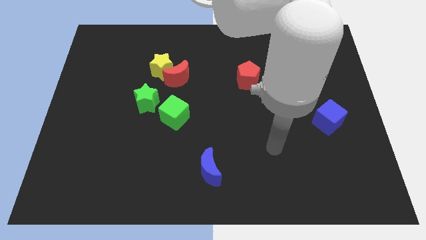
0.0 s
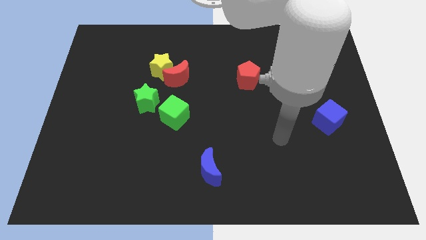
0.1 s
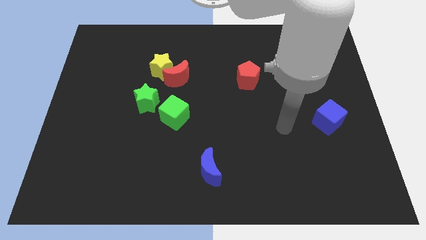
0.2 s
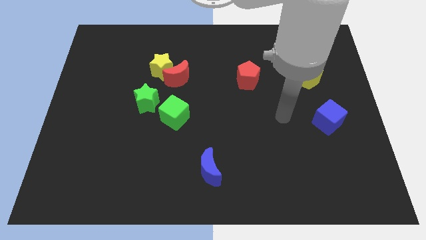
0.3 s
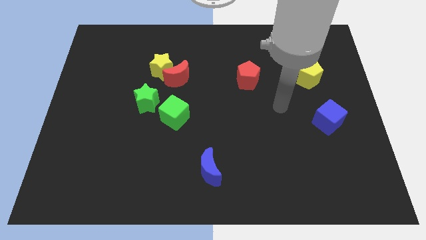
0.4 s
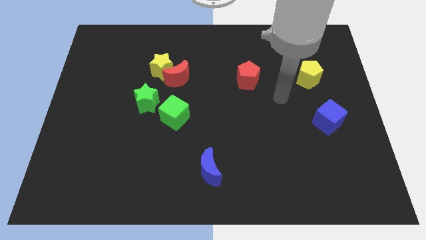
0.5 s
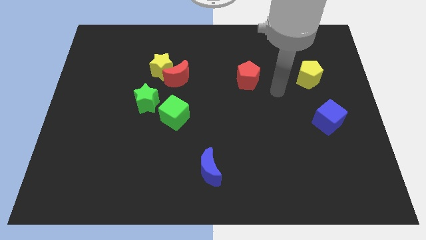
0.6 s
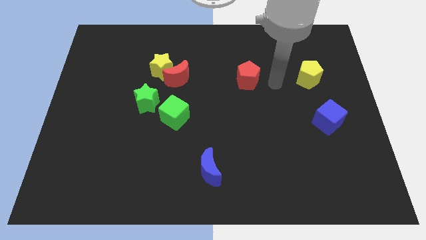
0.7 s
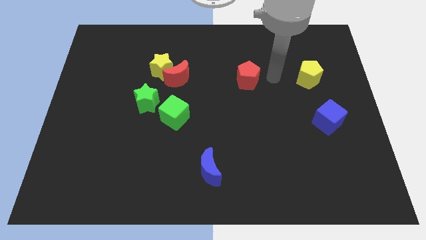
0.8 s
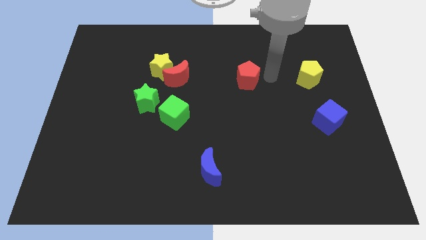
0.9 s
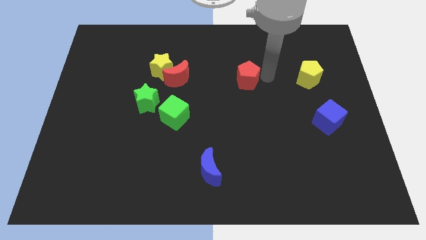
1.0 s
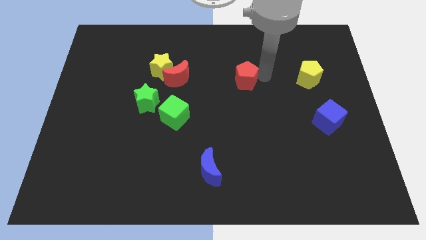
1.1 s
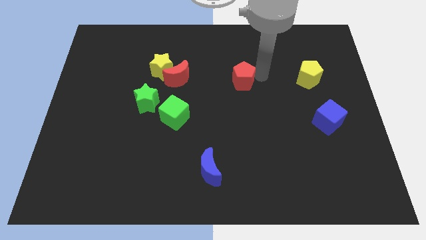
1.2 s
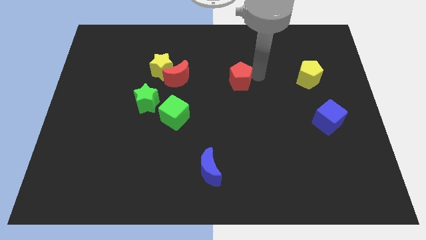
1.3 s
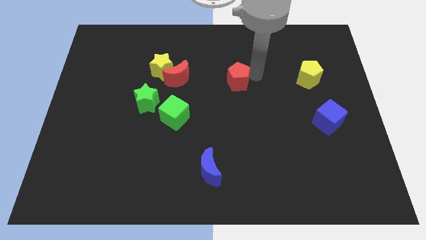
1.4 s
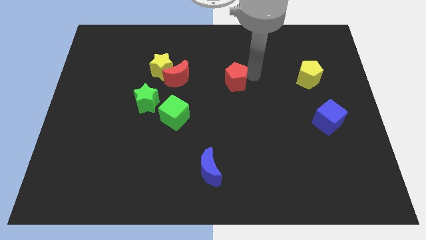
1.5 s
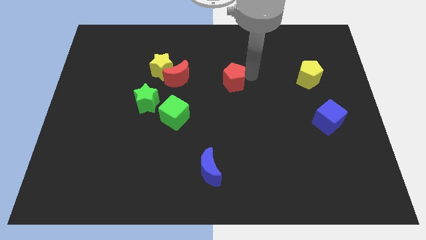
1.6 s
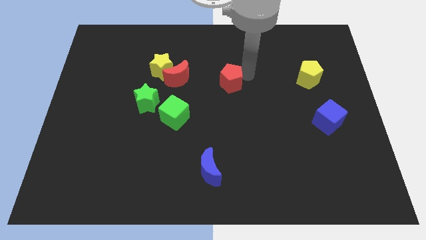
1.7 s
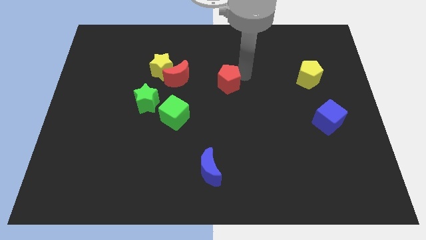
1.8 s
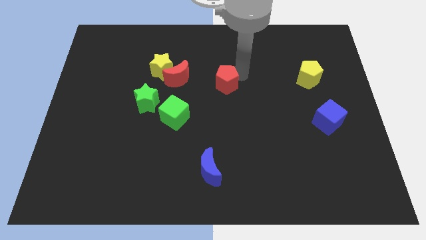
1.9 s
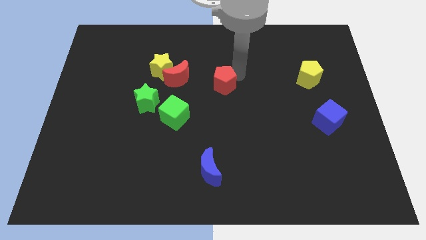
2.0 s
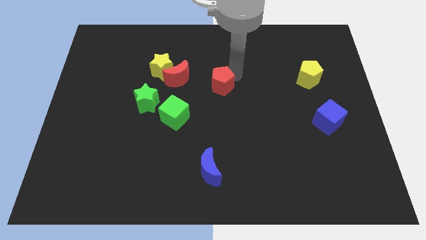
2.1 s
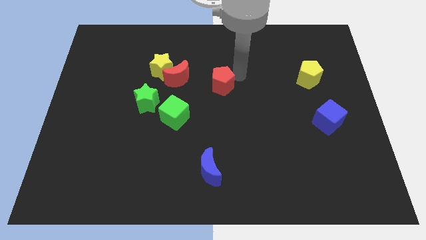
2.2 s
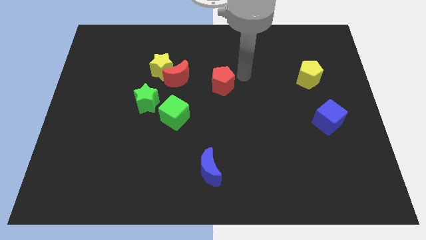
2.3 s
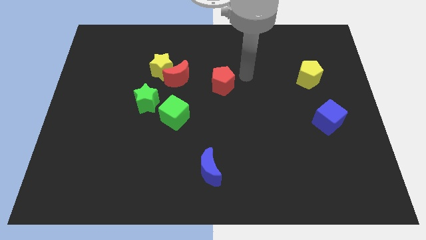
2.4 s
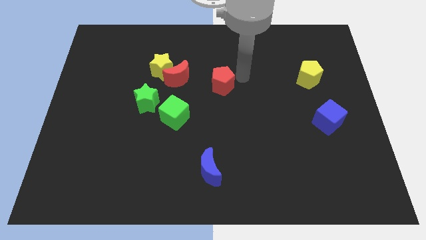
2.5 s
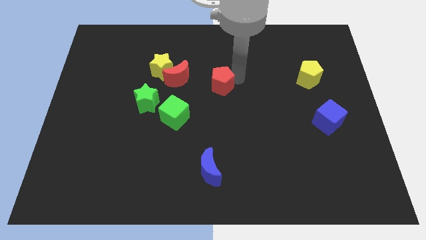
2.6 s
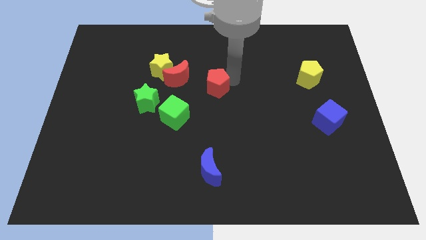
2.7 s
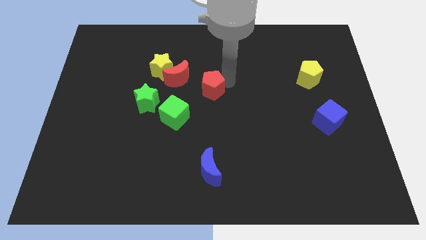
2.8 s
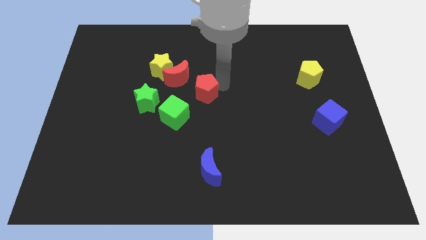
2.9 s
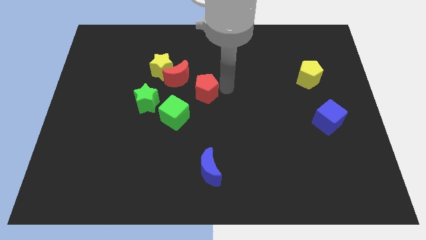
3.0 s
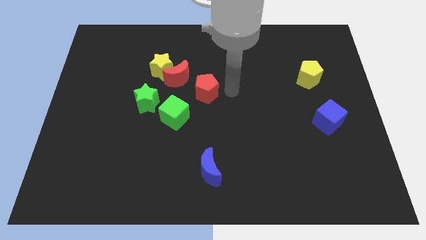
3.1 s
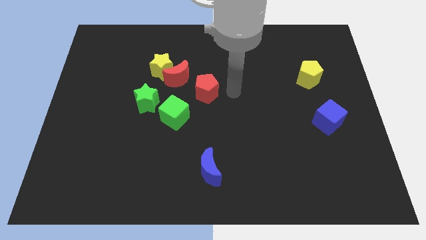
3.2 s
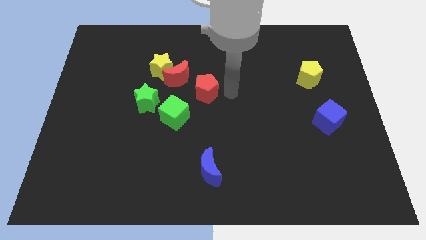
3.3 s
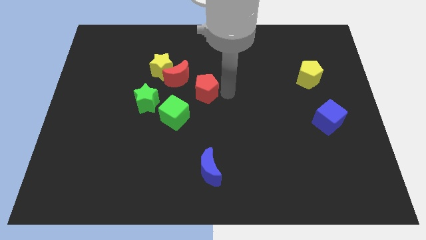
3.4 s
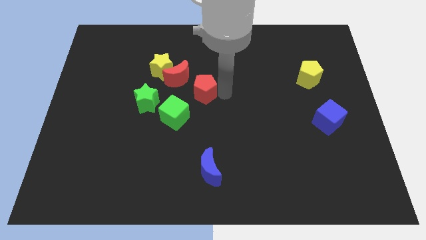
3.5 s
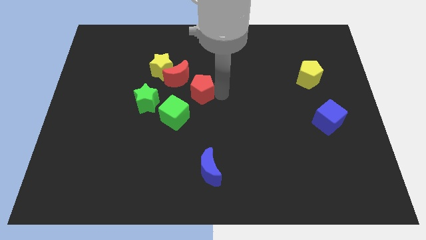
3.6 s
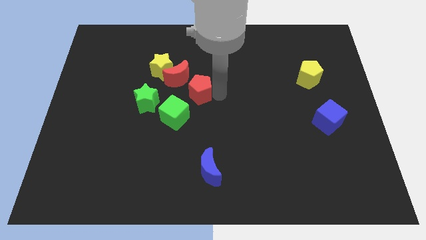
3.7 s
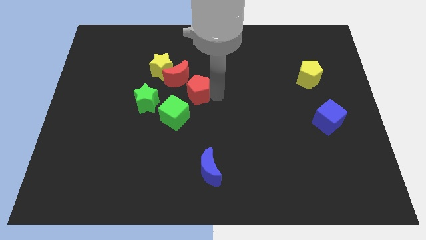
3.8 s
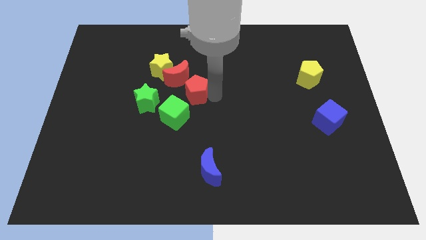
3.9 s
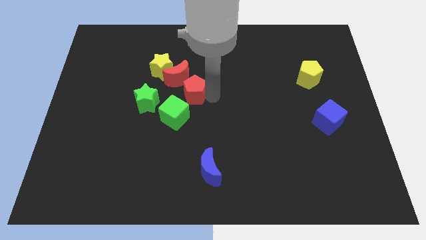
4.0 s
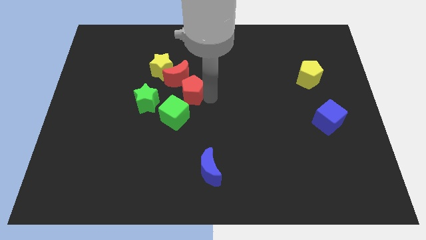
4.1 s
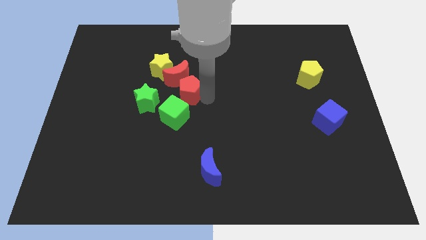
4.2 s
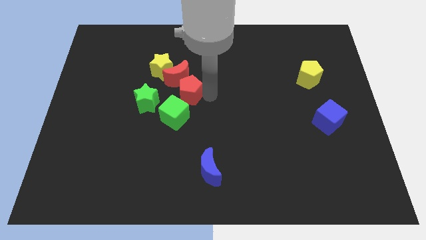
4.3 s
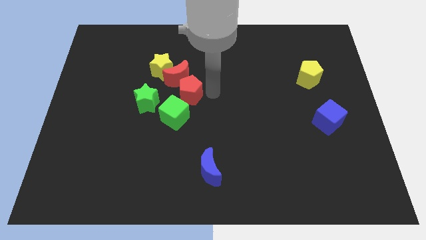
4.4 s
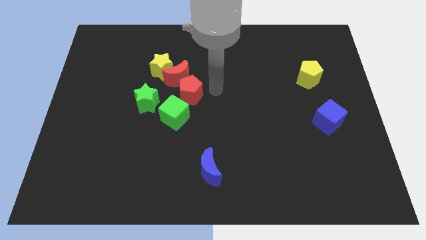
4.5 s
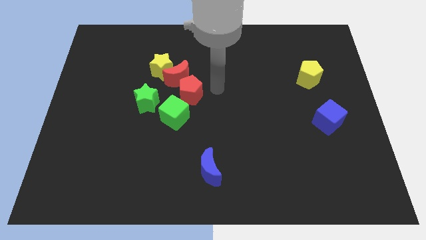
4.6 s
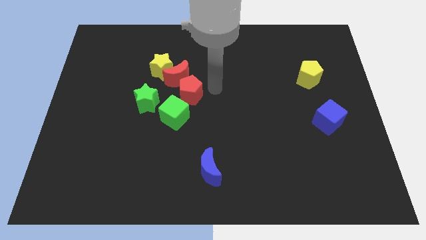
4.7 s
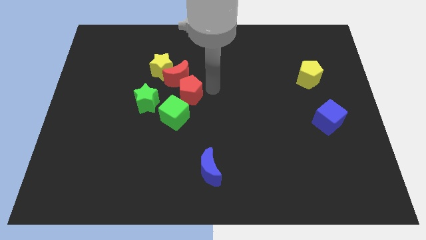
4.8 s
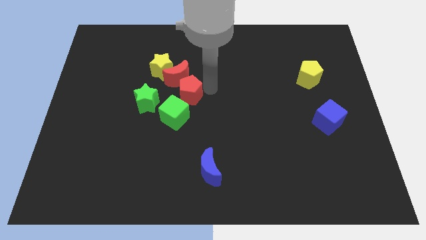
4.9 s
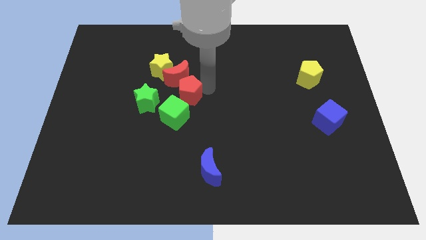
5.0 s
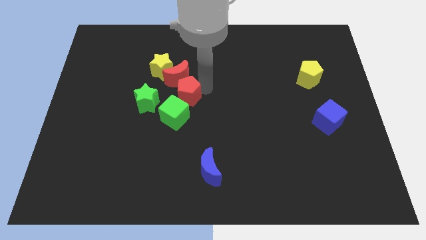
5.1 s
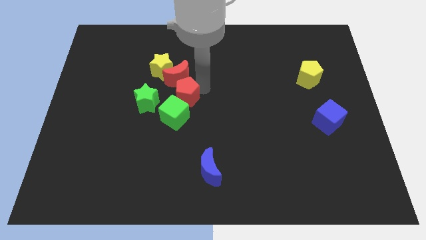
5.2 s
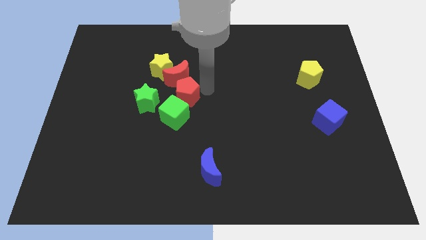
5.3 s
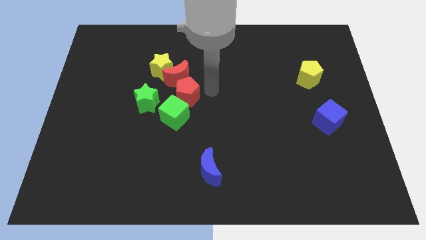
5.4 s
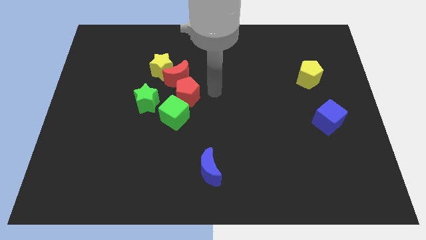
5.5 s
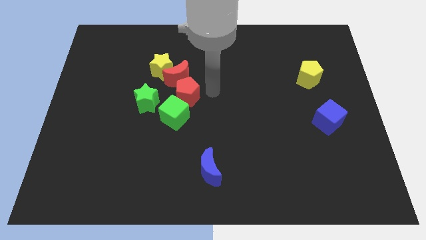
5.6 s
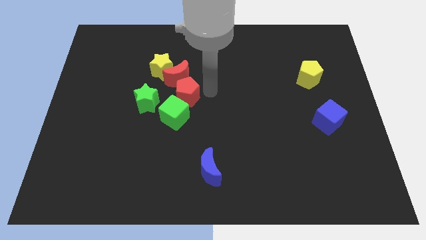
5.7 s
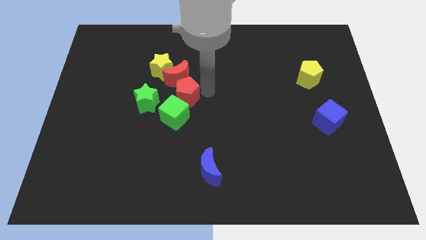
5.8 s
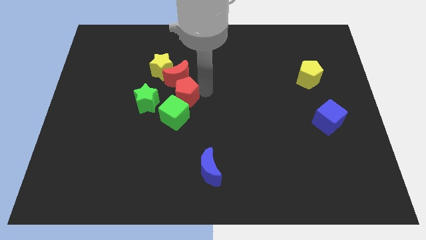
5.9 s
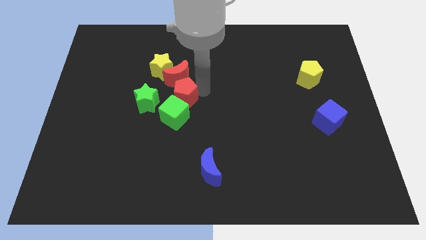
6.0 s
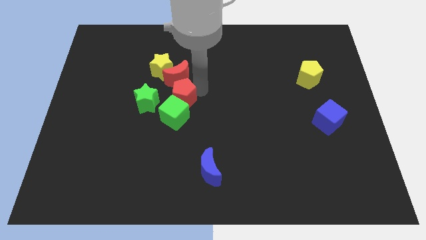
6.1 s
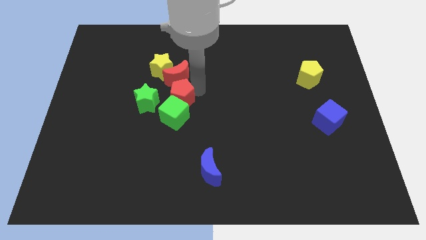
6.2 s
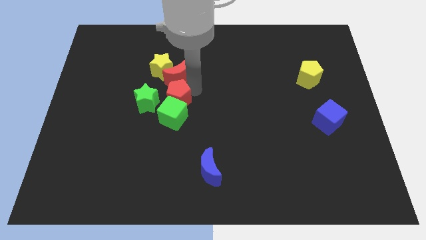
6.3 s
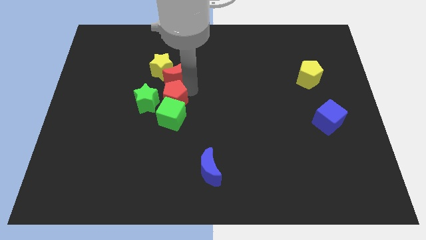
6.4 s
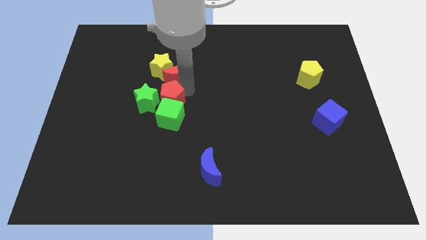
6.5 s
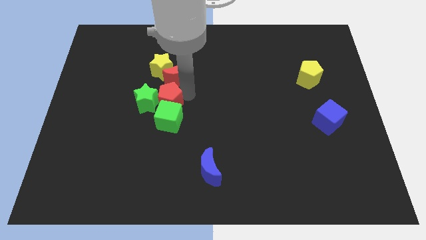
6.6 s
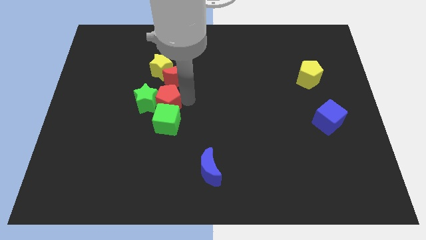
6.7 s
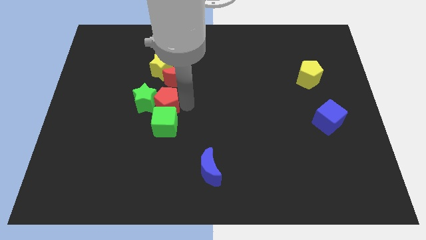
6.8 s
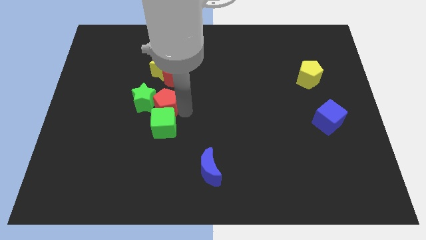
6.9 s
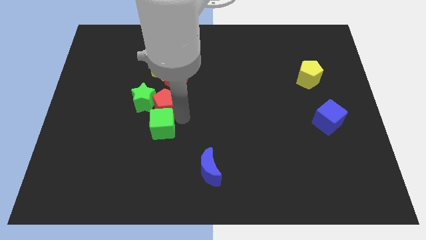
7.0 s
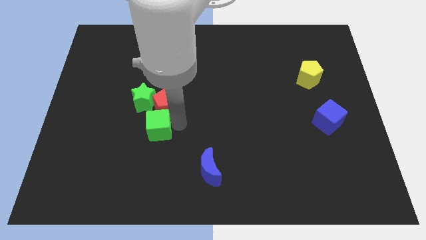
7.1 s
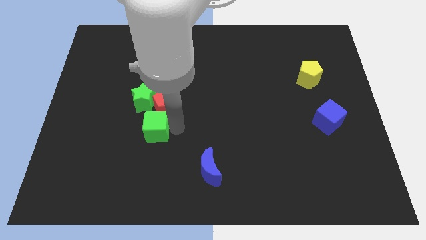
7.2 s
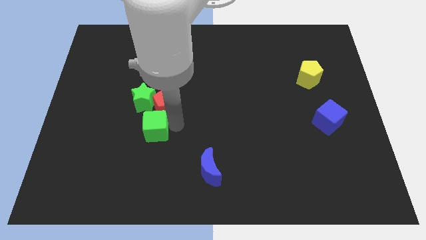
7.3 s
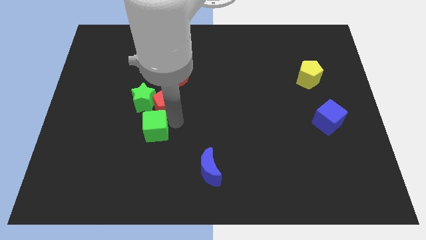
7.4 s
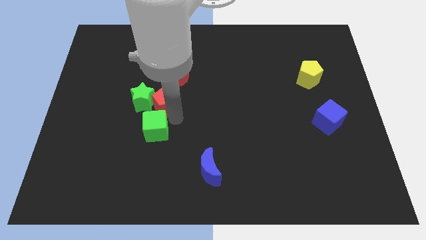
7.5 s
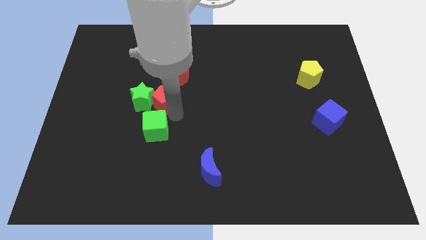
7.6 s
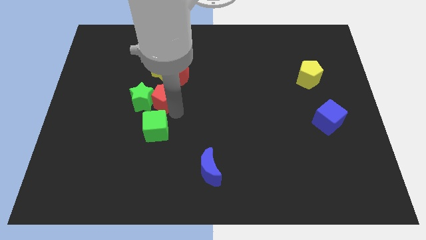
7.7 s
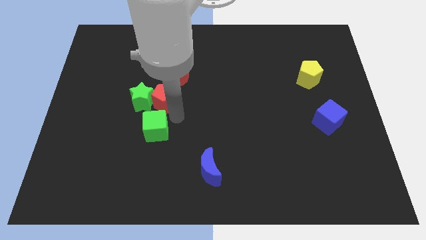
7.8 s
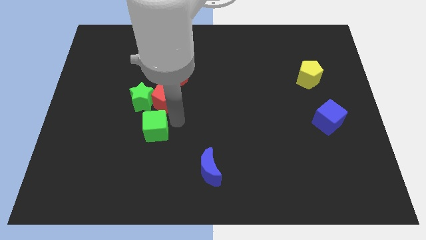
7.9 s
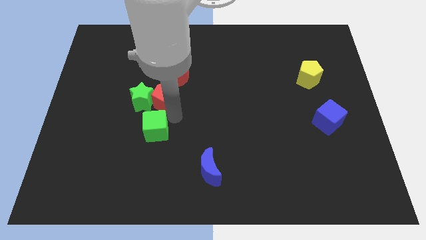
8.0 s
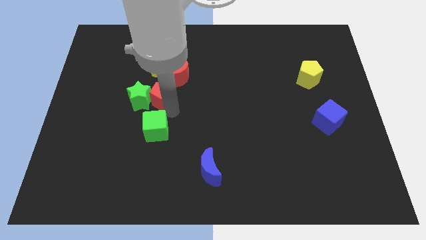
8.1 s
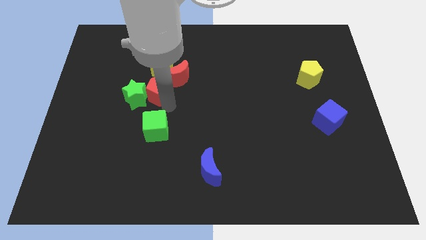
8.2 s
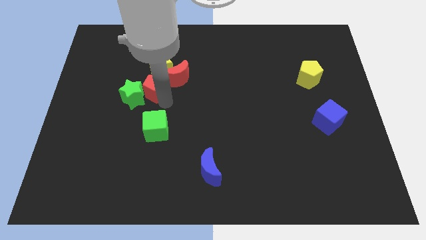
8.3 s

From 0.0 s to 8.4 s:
push the red pentagon to the left side of the red moon
